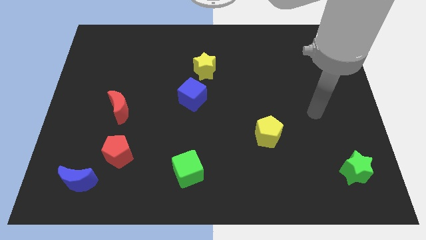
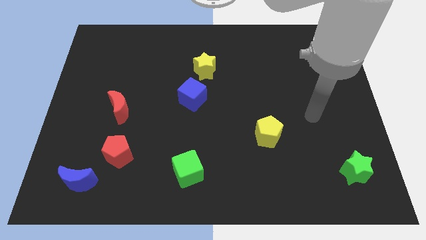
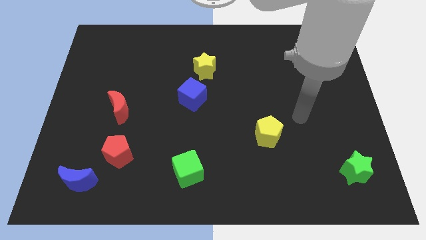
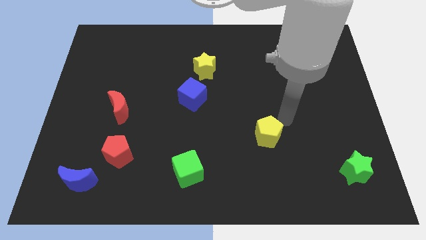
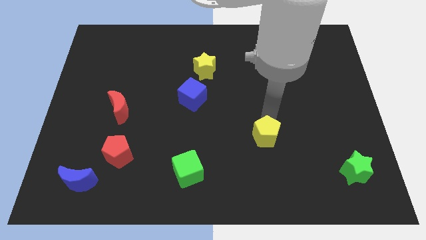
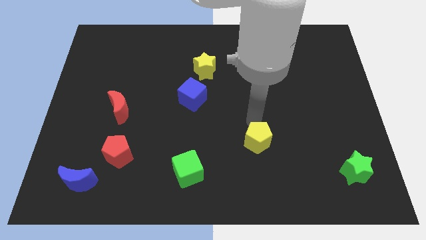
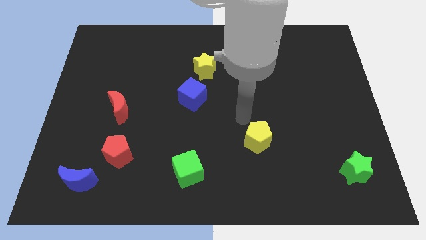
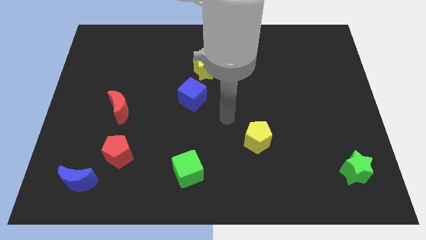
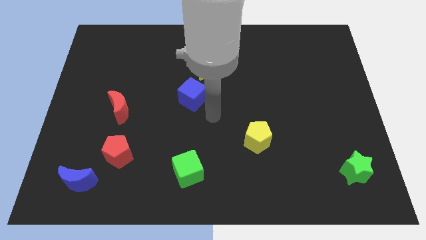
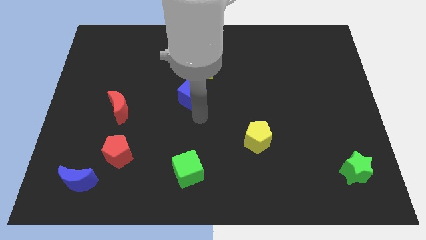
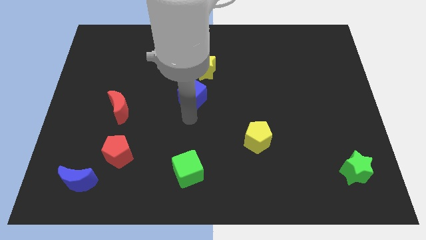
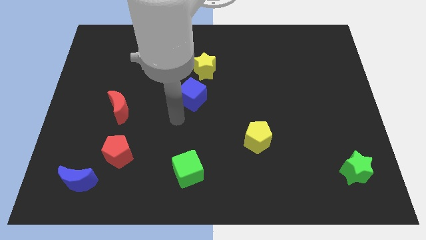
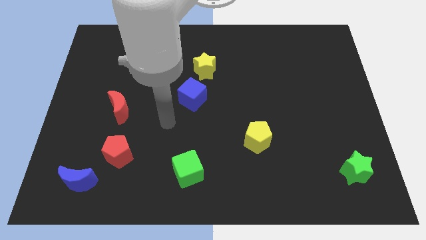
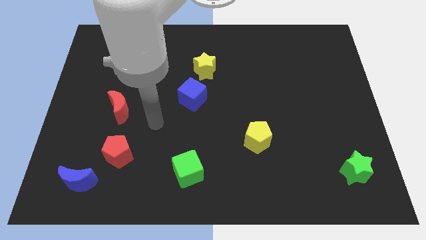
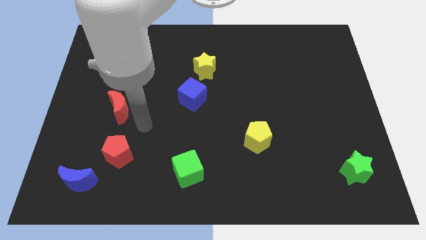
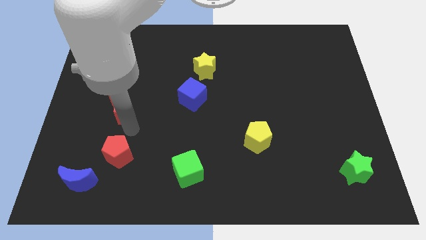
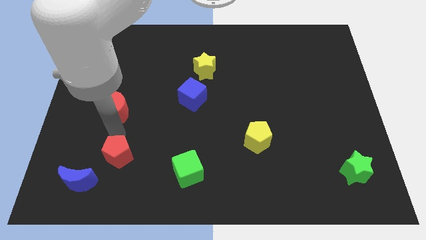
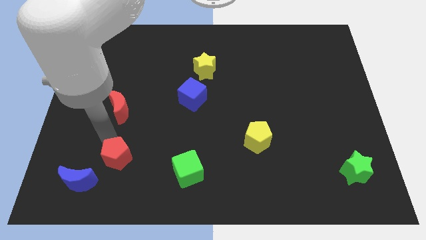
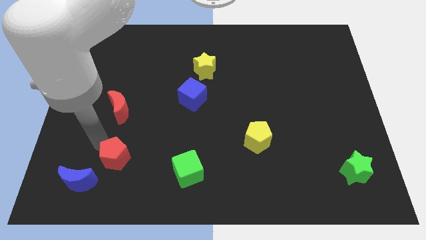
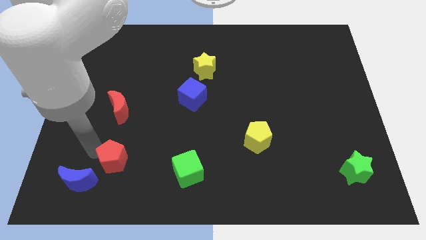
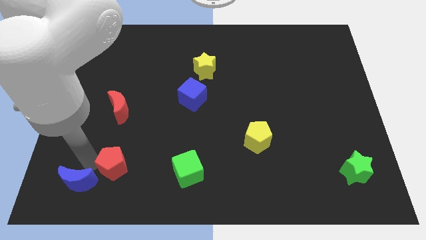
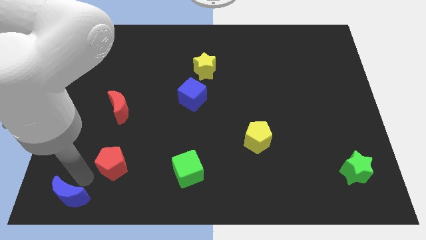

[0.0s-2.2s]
move the red pentagon away from the blue moon

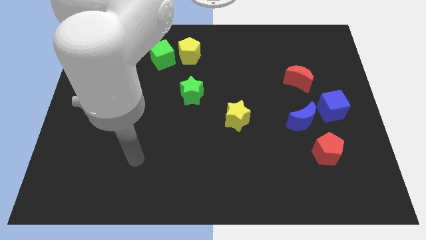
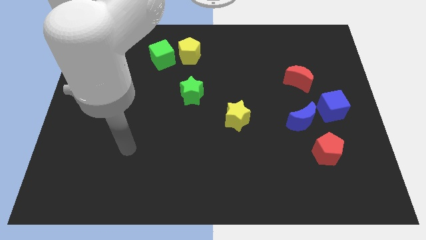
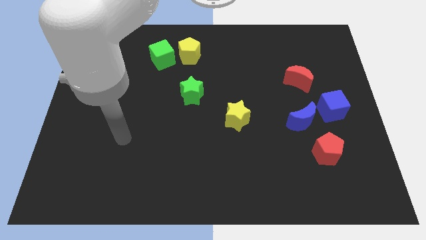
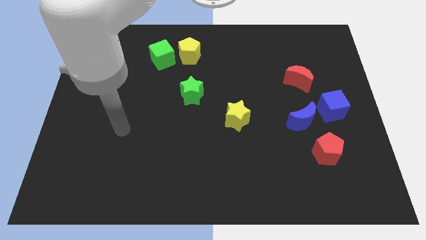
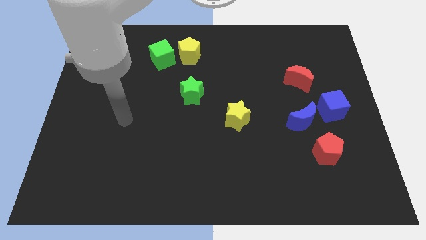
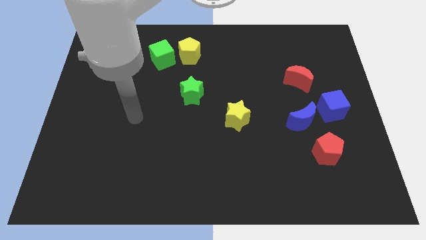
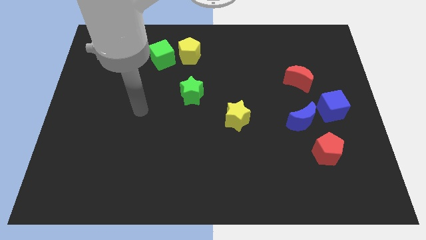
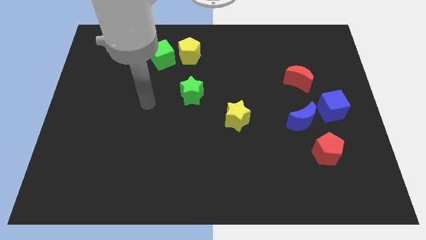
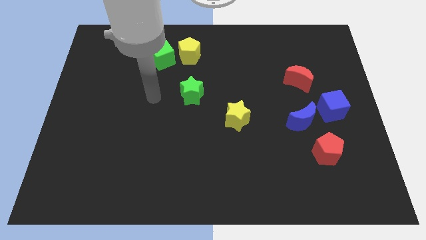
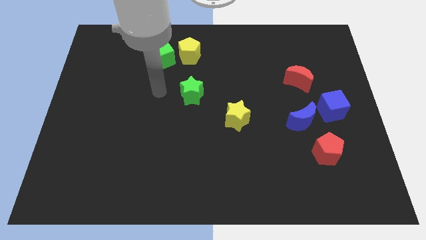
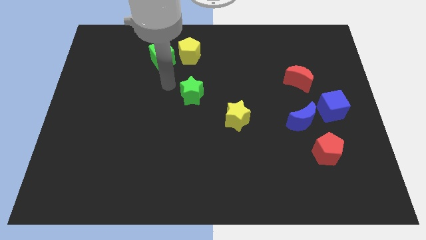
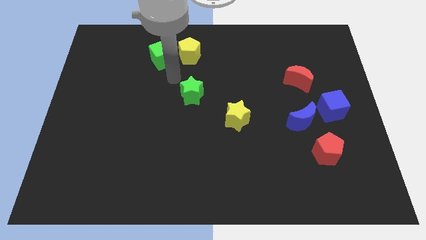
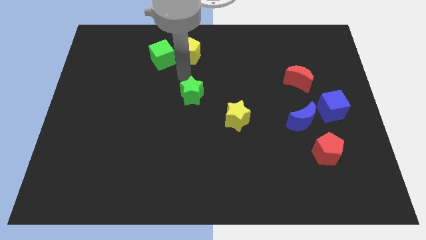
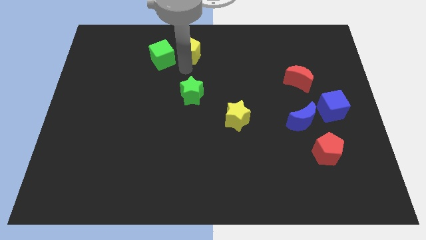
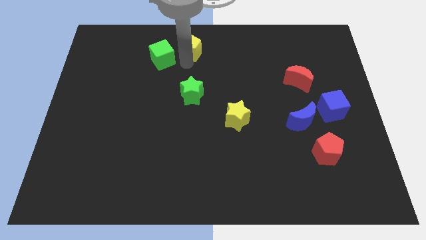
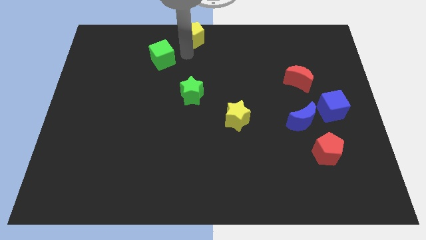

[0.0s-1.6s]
move the green cube away from the yellow pentagon

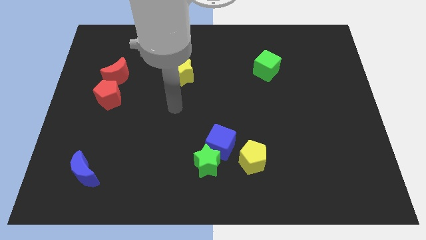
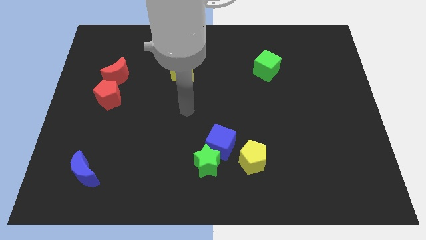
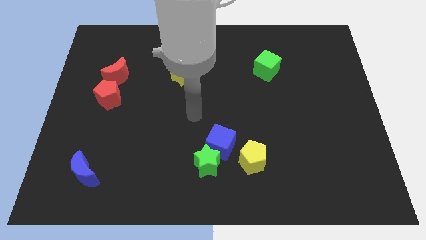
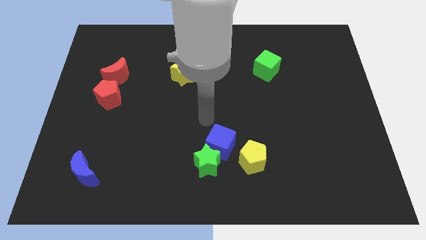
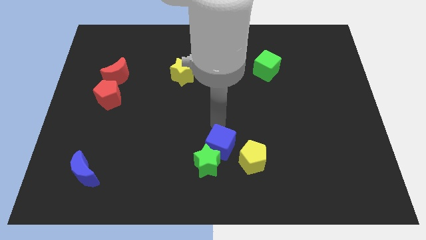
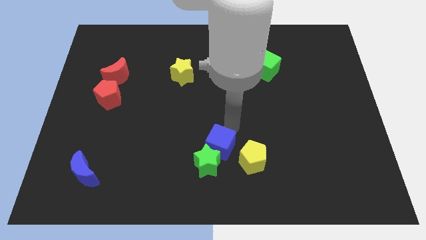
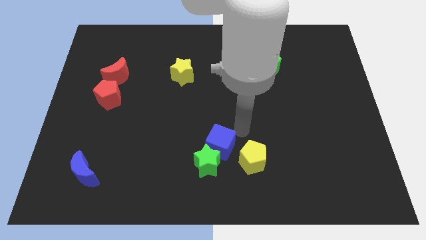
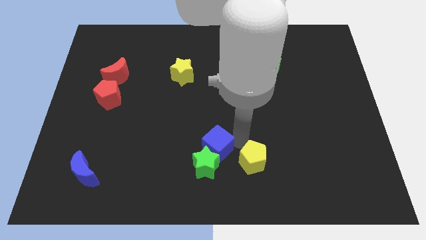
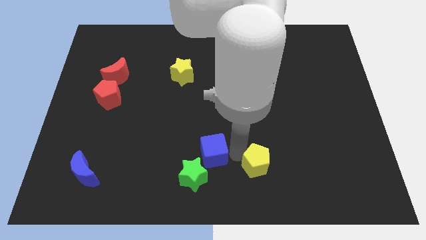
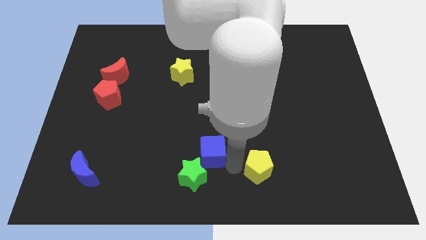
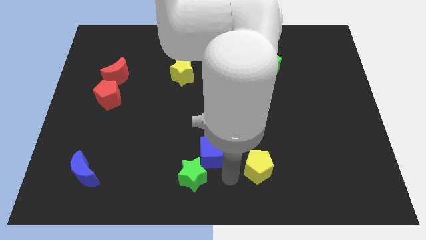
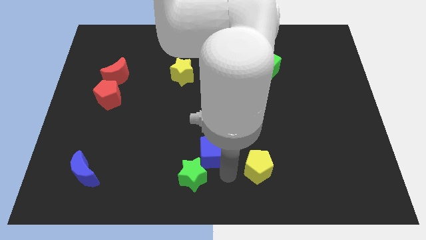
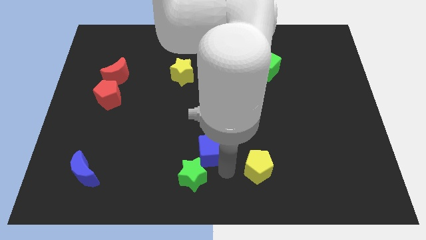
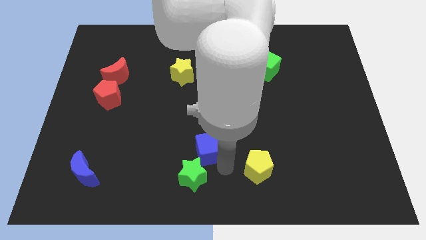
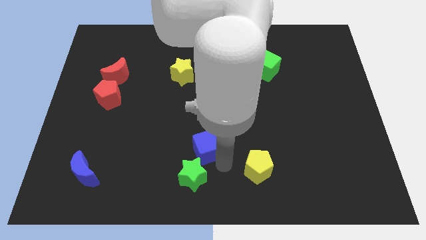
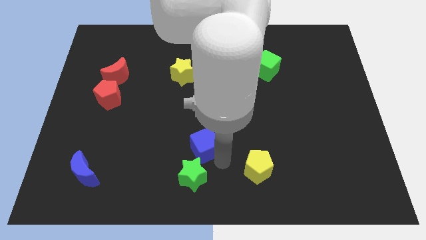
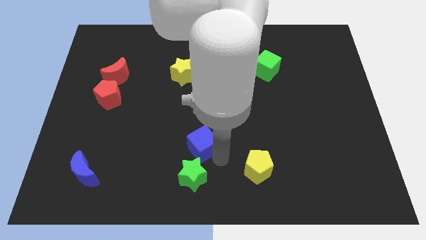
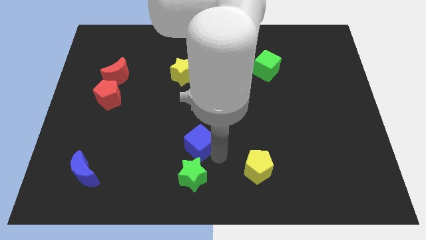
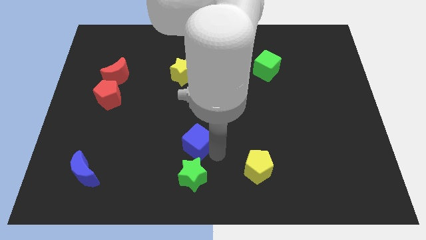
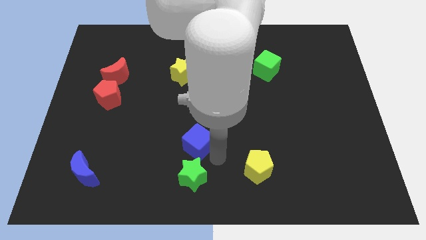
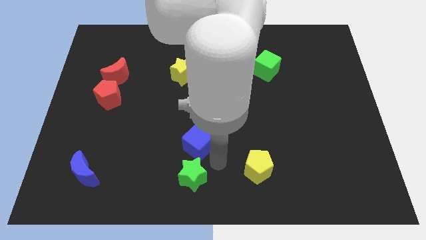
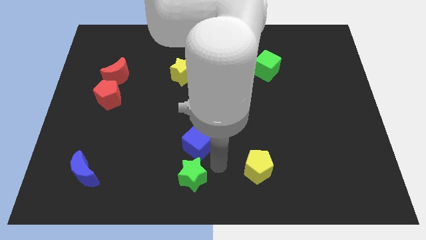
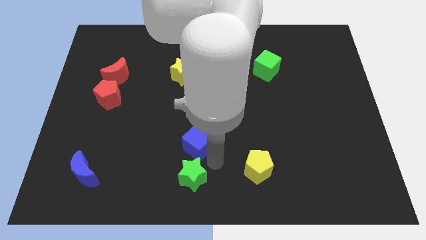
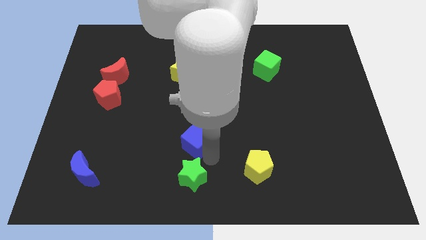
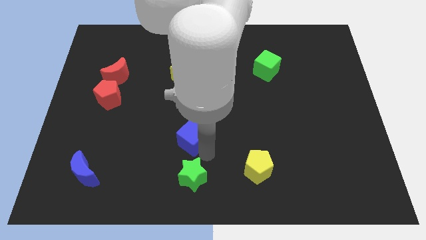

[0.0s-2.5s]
separate the blue cube from the green star and yellow pentagon

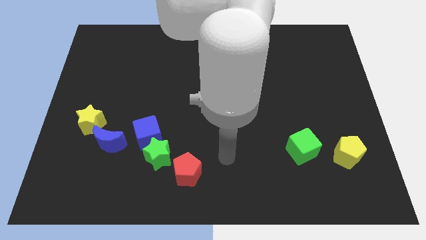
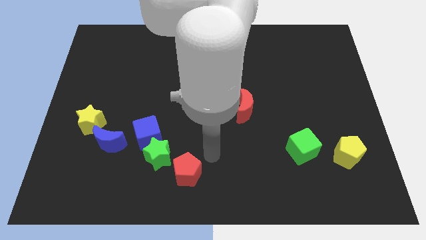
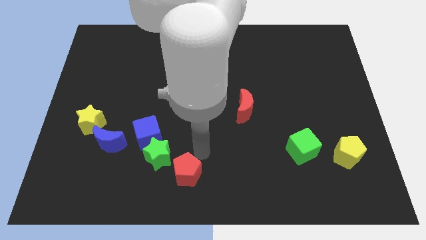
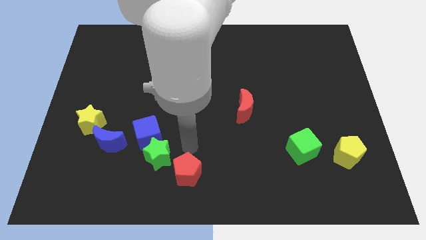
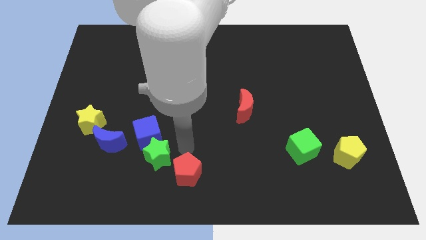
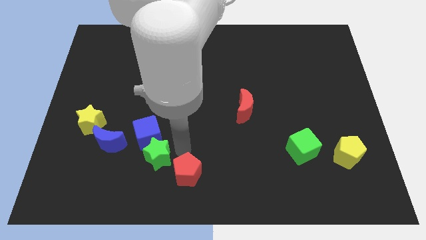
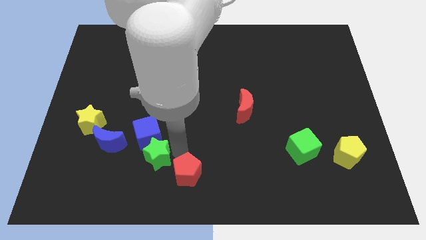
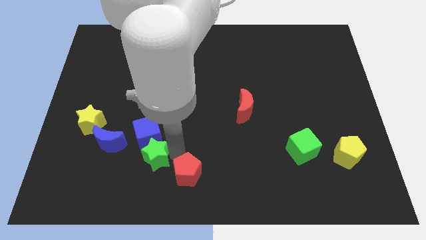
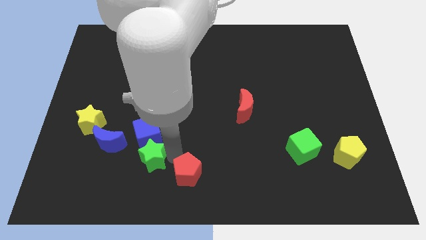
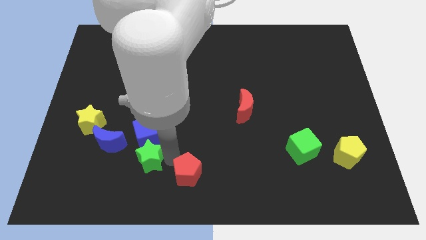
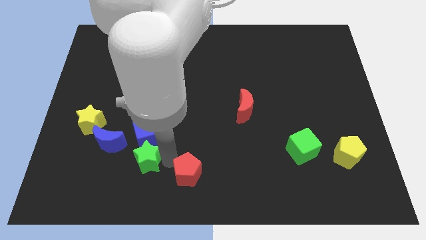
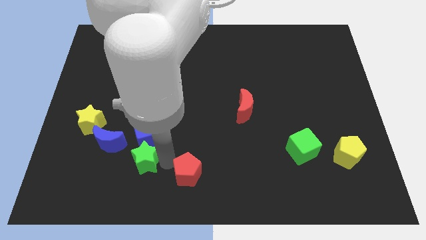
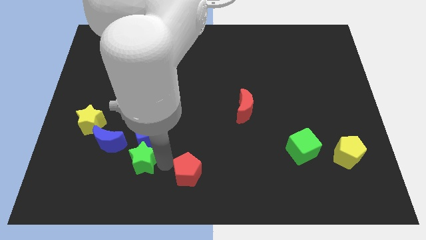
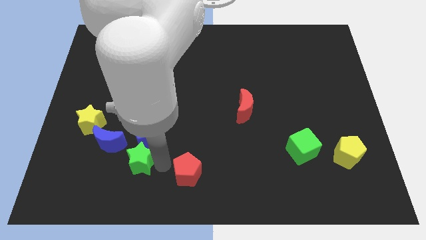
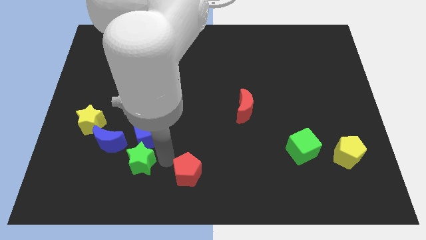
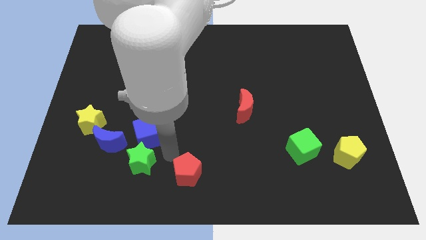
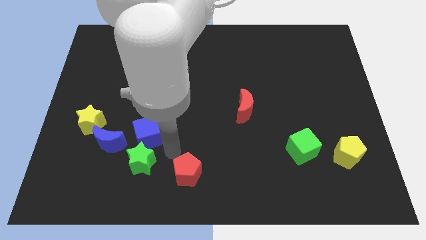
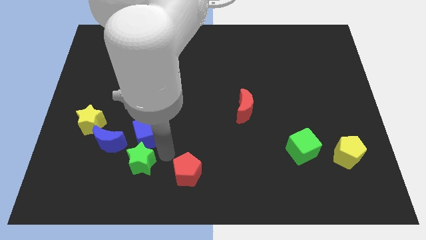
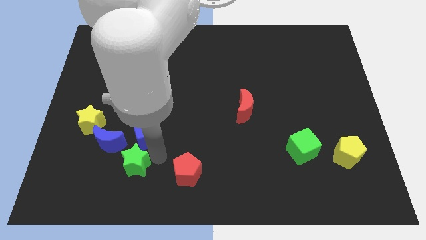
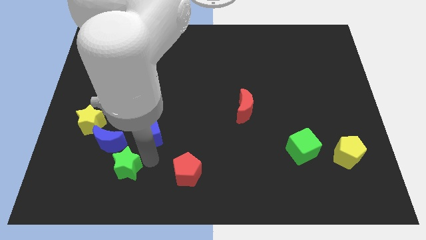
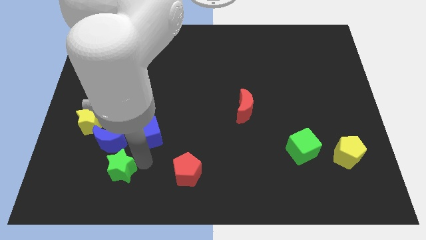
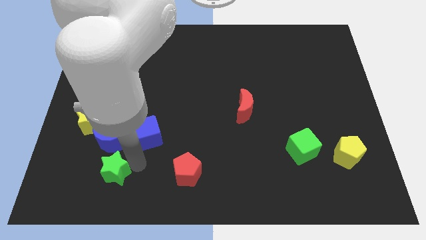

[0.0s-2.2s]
pull the green star apart from the blue cube and red pentagon

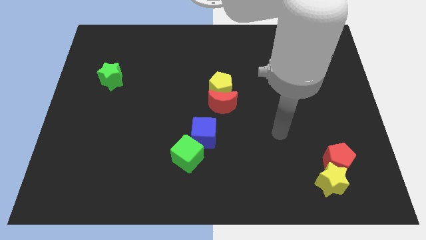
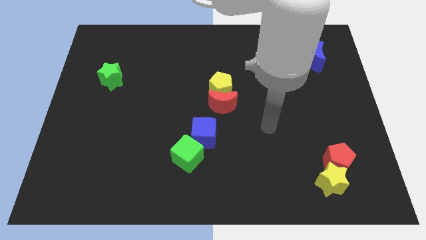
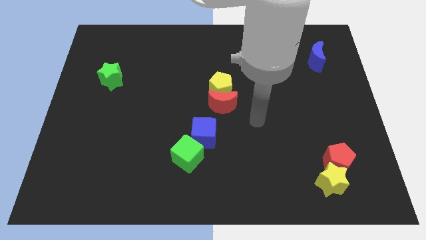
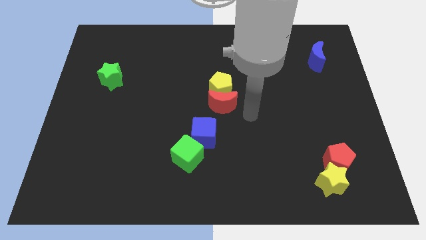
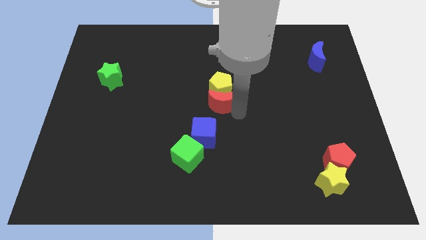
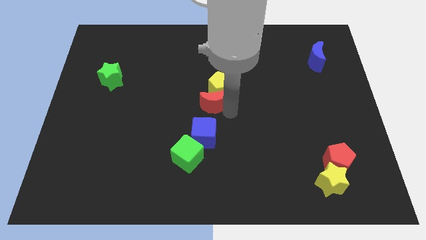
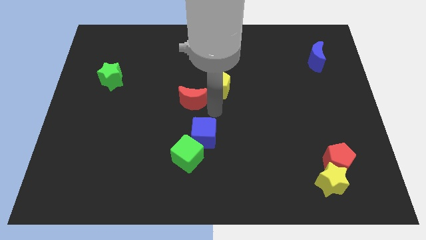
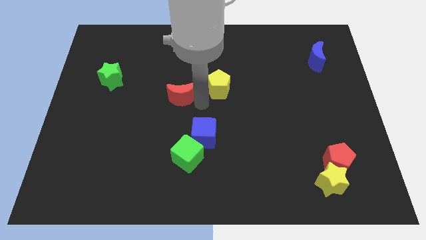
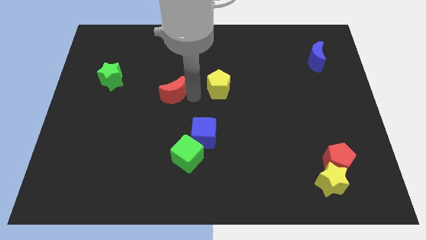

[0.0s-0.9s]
separate the yellow pentagon from the red moon
